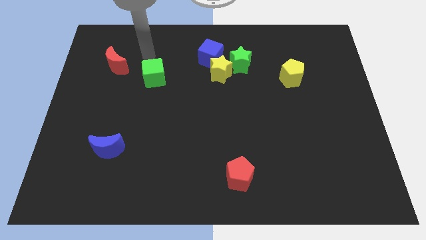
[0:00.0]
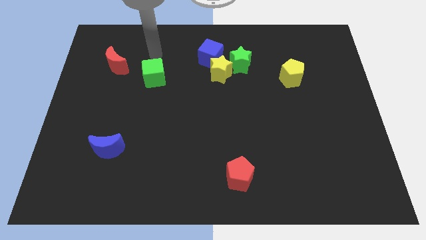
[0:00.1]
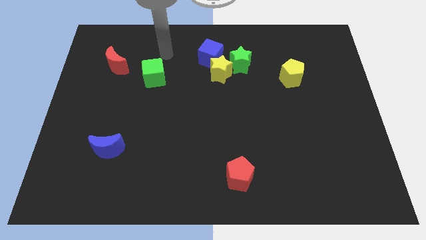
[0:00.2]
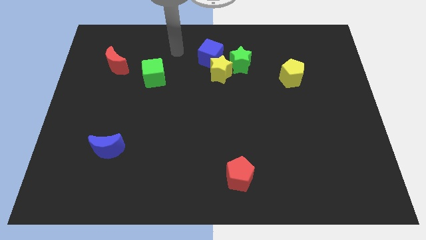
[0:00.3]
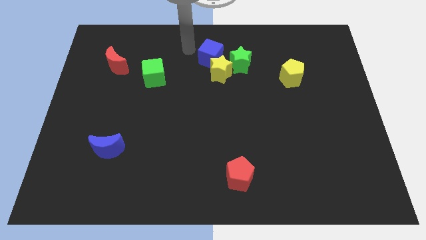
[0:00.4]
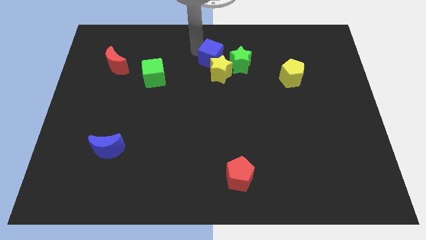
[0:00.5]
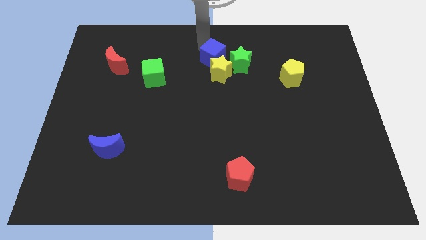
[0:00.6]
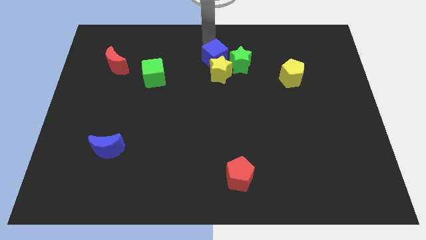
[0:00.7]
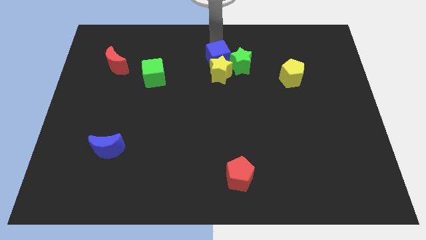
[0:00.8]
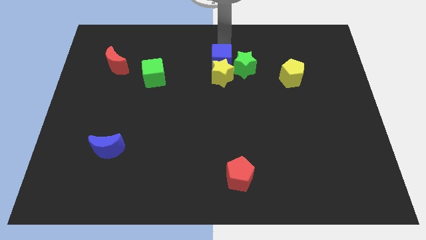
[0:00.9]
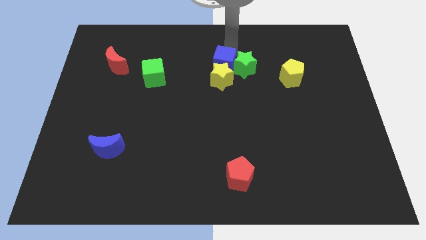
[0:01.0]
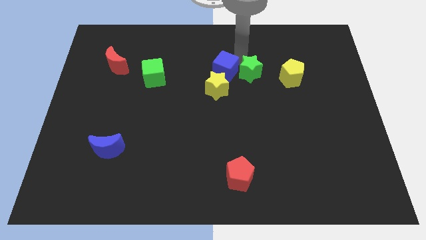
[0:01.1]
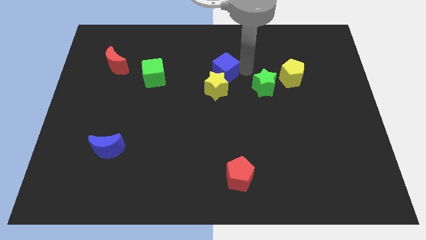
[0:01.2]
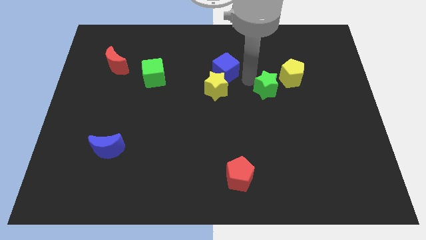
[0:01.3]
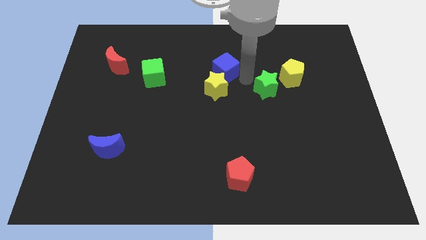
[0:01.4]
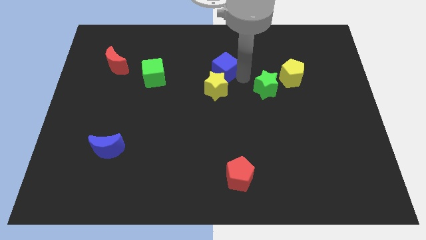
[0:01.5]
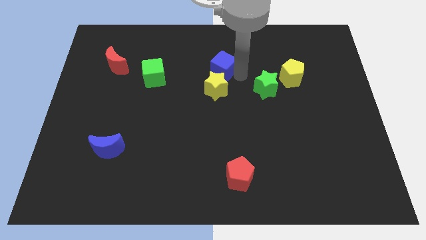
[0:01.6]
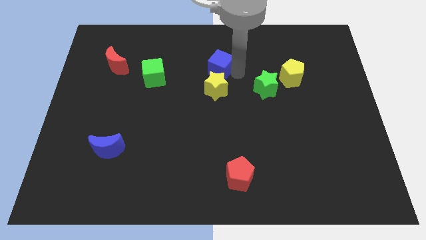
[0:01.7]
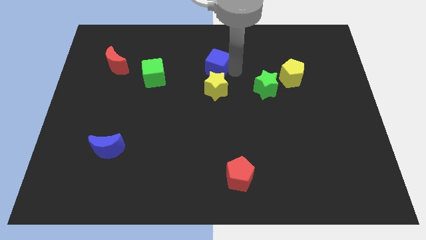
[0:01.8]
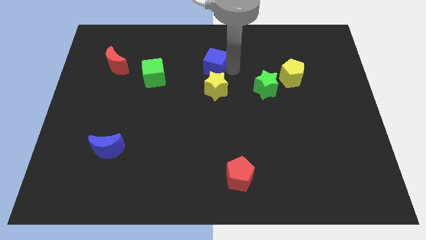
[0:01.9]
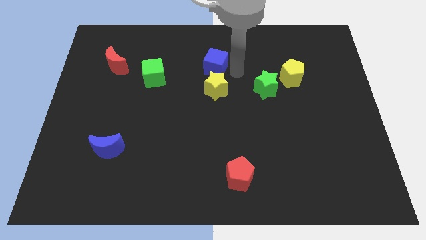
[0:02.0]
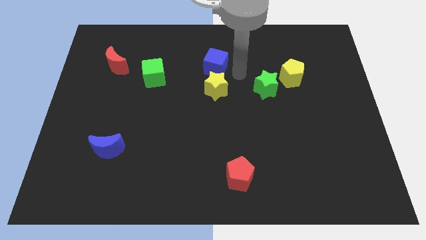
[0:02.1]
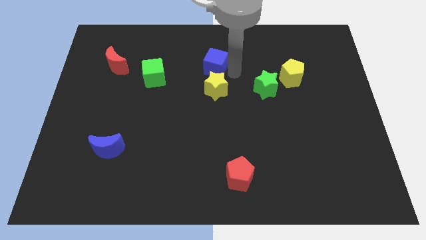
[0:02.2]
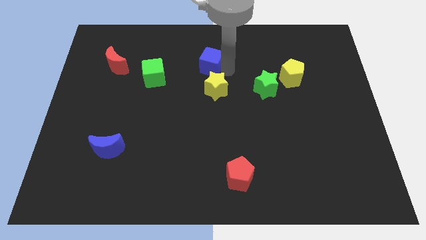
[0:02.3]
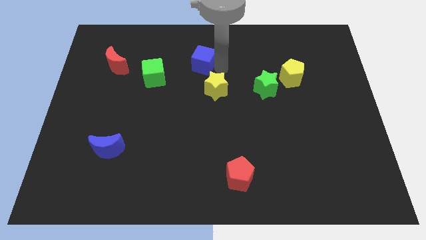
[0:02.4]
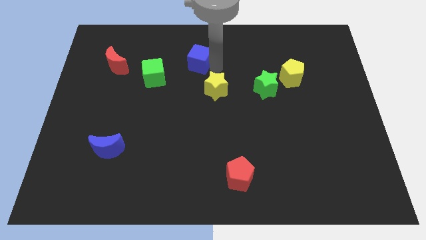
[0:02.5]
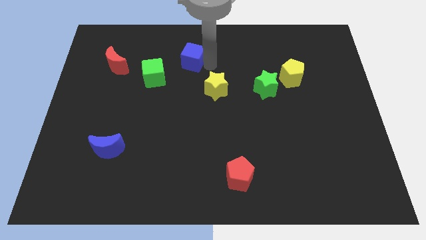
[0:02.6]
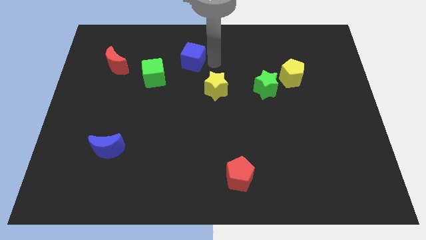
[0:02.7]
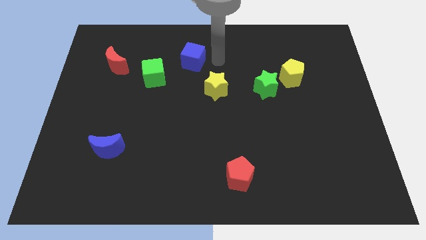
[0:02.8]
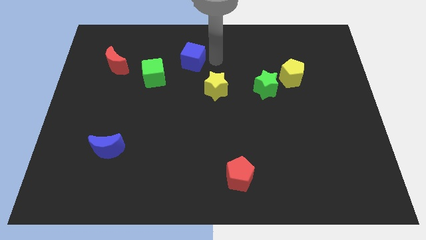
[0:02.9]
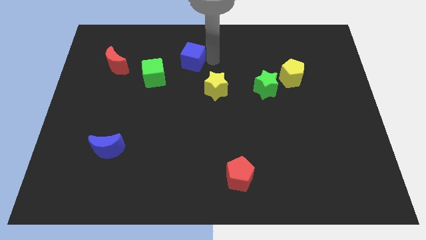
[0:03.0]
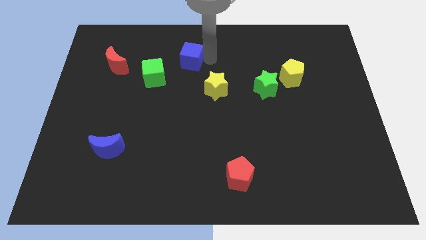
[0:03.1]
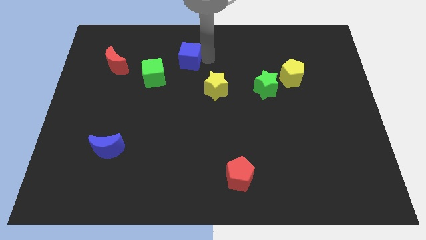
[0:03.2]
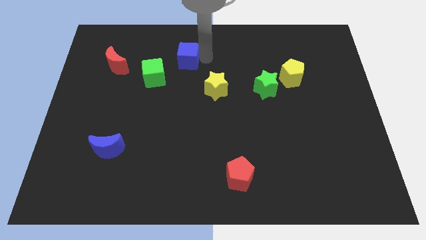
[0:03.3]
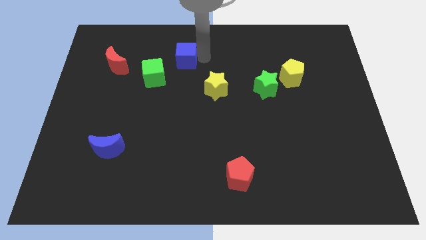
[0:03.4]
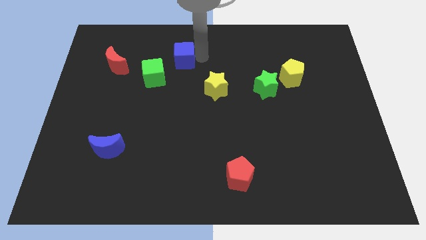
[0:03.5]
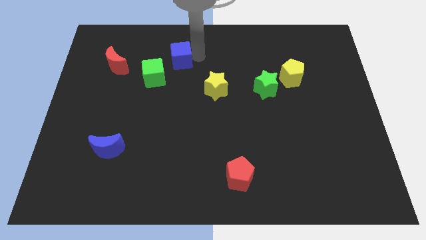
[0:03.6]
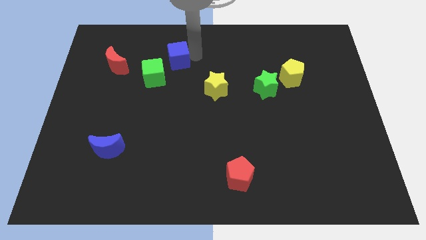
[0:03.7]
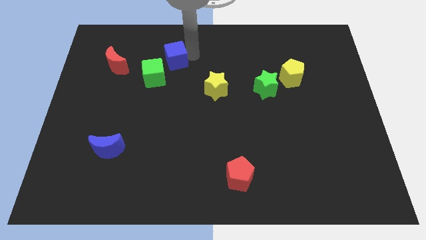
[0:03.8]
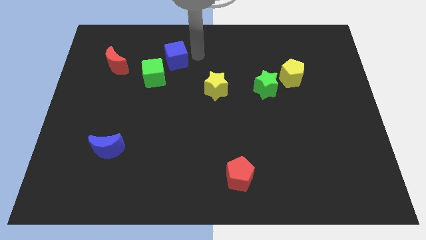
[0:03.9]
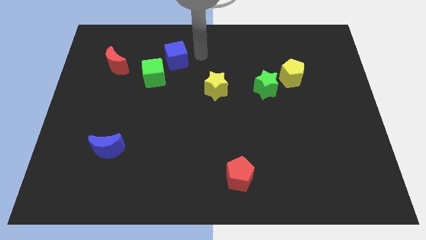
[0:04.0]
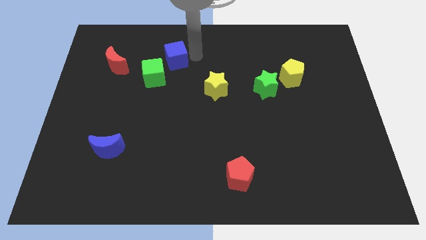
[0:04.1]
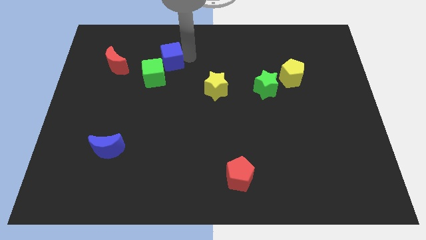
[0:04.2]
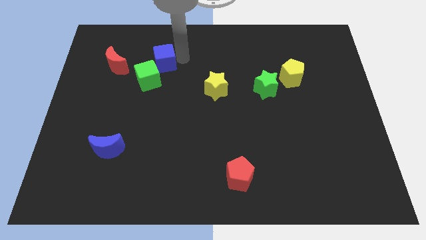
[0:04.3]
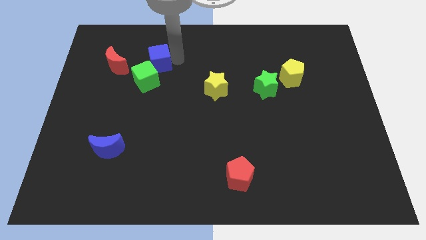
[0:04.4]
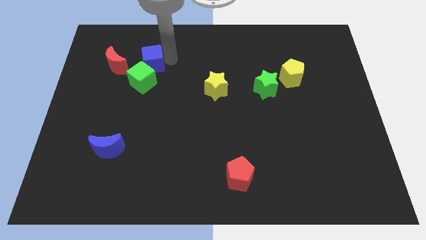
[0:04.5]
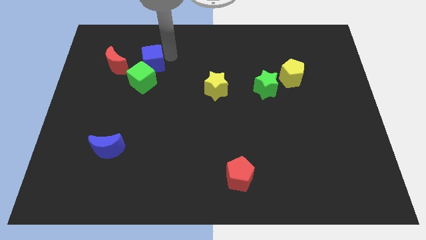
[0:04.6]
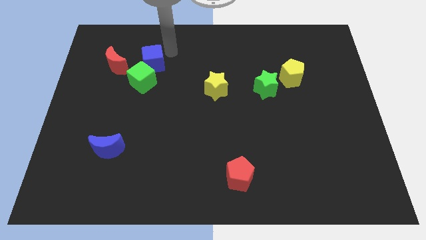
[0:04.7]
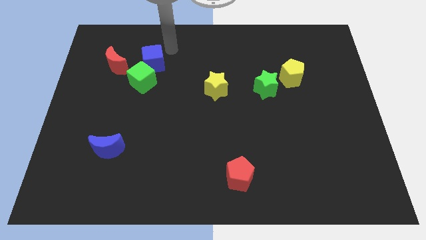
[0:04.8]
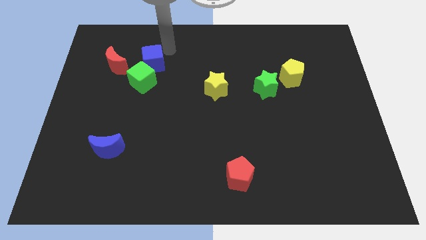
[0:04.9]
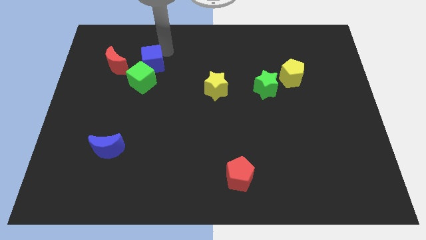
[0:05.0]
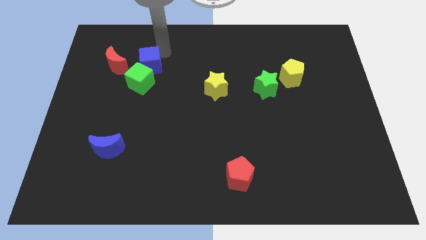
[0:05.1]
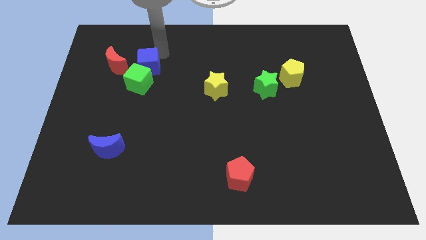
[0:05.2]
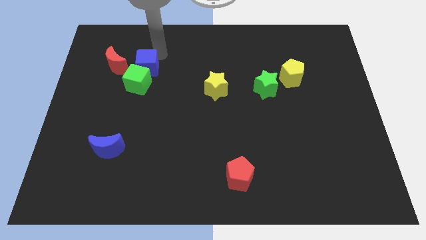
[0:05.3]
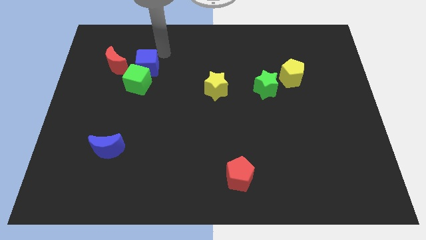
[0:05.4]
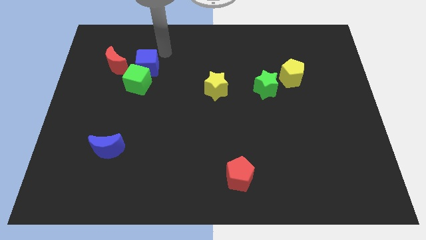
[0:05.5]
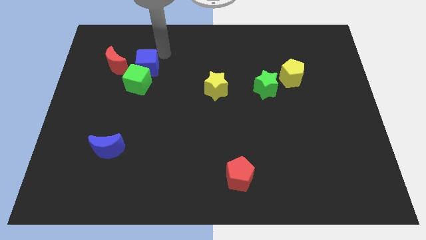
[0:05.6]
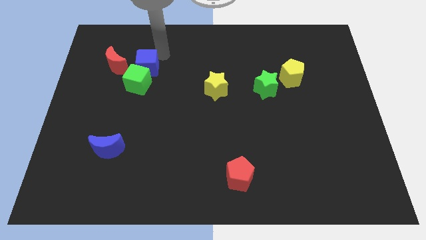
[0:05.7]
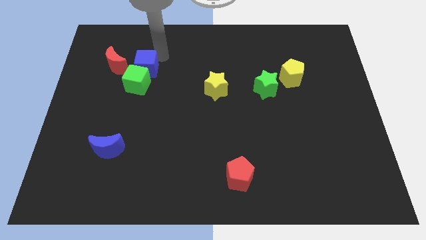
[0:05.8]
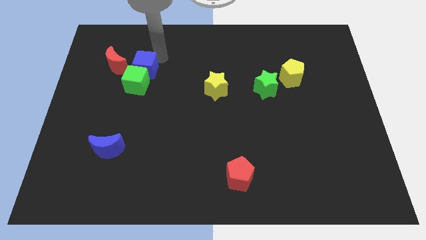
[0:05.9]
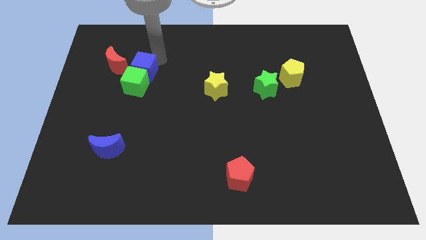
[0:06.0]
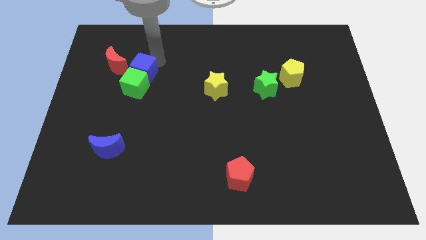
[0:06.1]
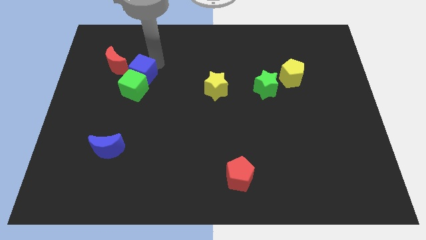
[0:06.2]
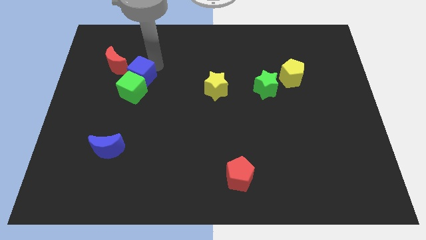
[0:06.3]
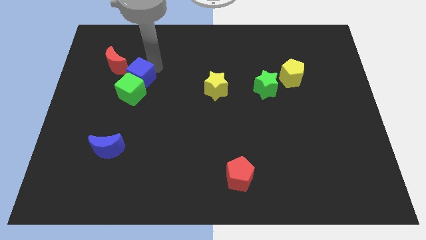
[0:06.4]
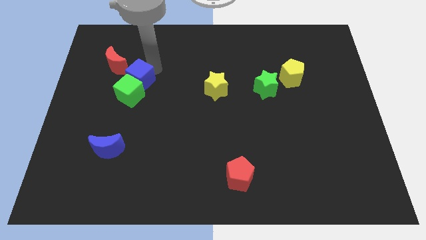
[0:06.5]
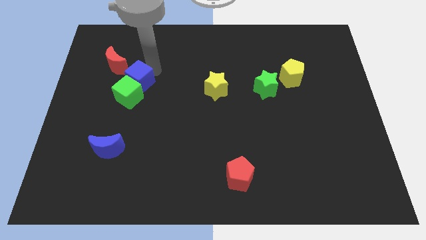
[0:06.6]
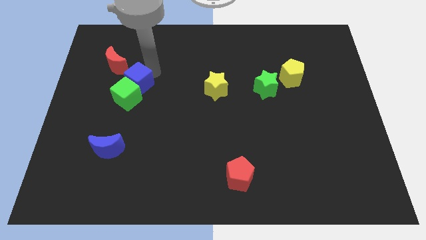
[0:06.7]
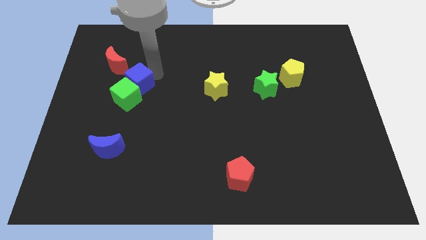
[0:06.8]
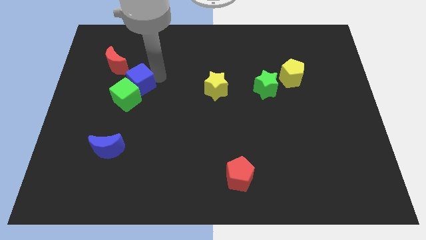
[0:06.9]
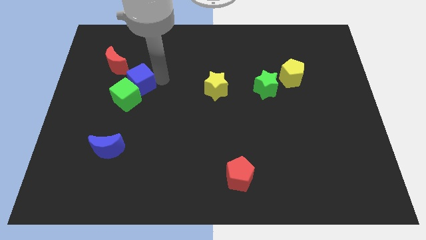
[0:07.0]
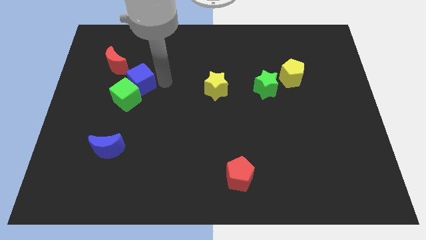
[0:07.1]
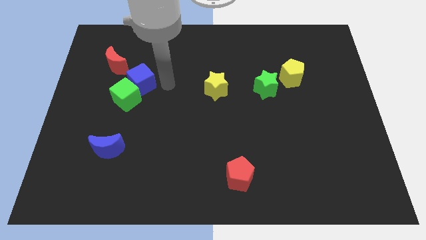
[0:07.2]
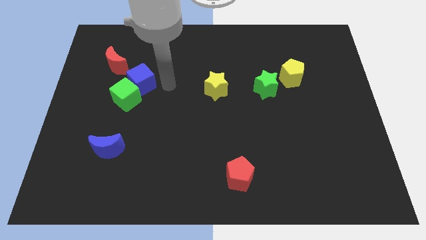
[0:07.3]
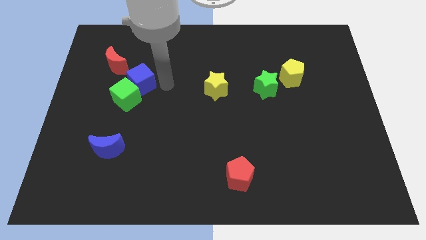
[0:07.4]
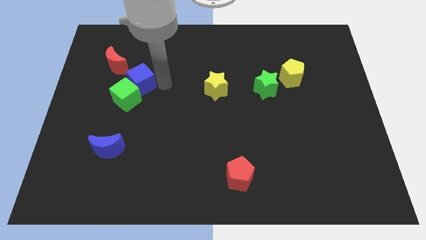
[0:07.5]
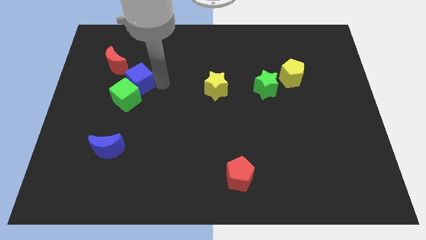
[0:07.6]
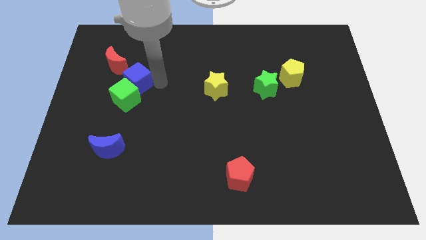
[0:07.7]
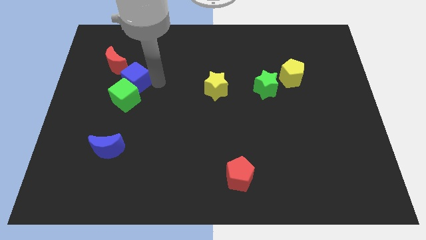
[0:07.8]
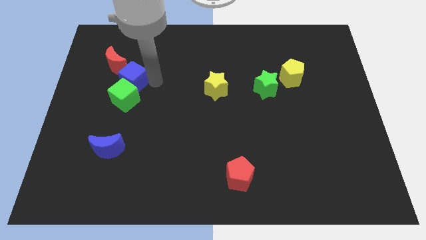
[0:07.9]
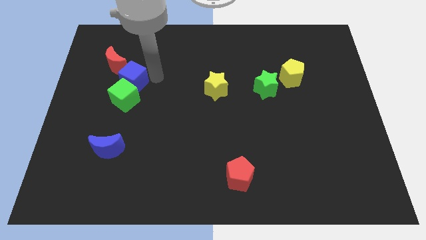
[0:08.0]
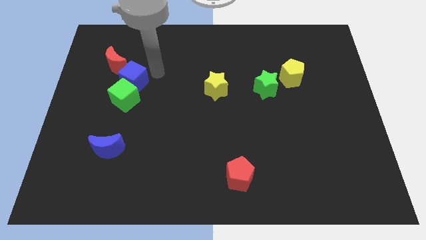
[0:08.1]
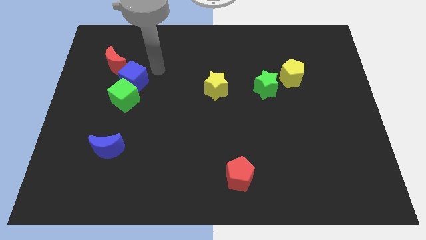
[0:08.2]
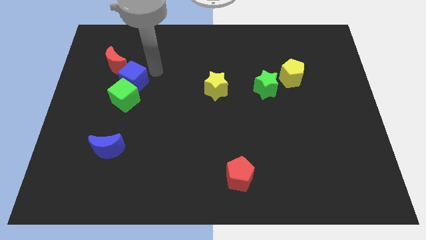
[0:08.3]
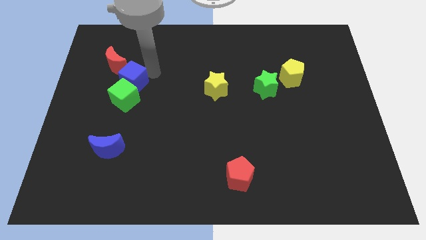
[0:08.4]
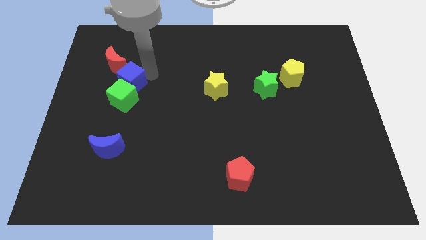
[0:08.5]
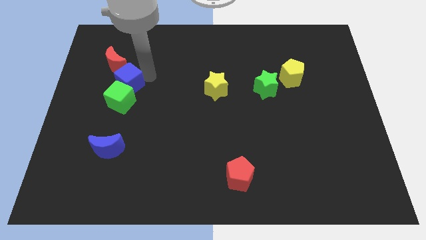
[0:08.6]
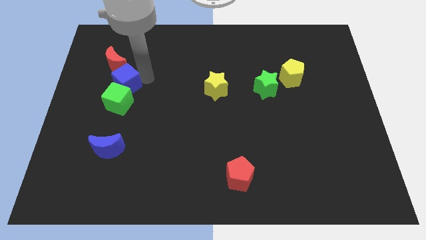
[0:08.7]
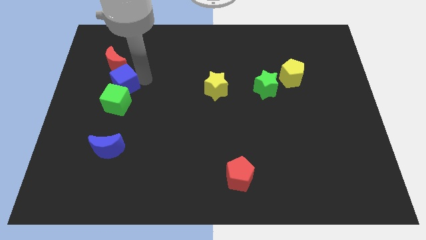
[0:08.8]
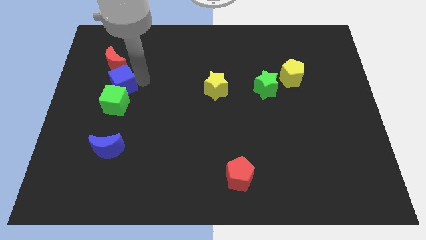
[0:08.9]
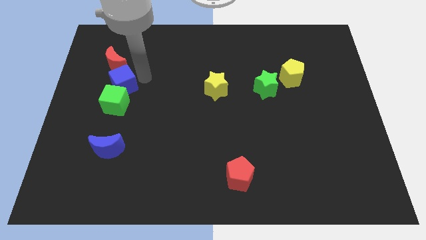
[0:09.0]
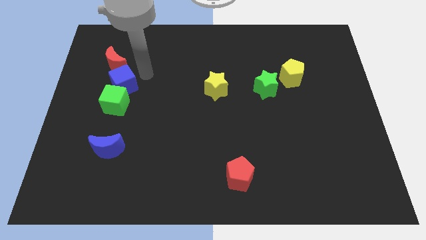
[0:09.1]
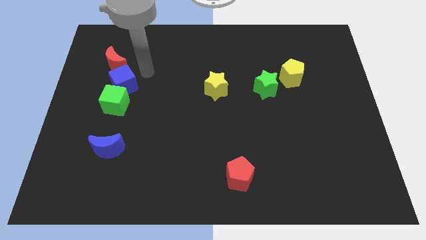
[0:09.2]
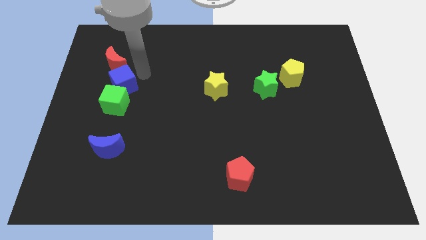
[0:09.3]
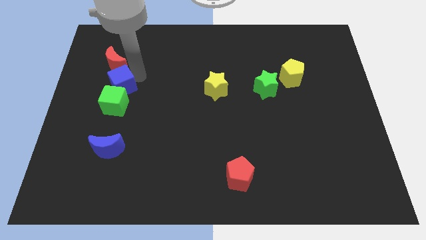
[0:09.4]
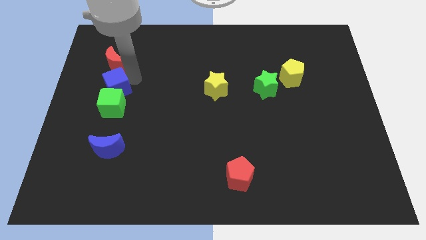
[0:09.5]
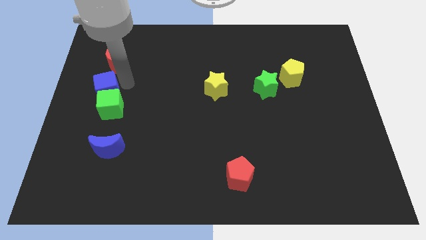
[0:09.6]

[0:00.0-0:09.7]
push the blue cube to the left side of the board
